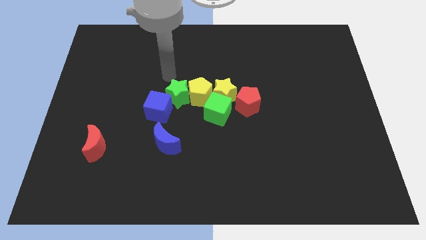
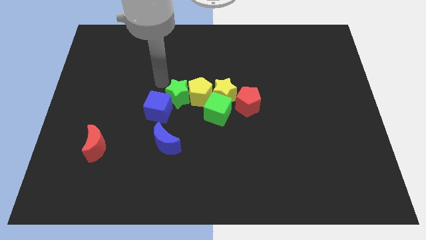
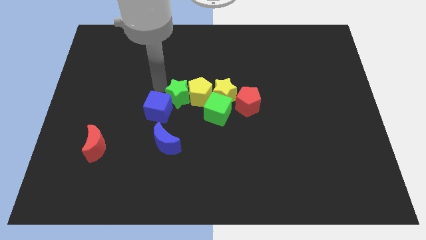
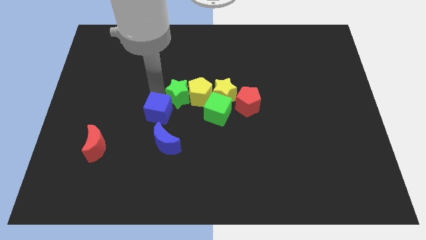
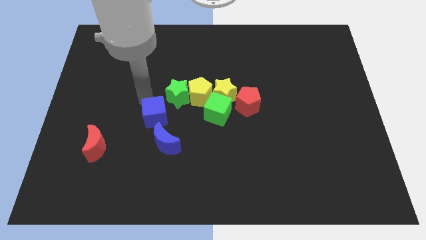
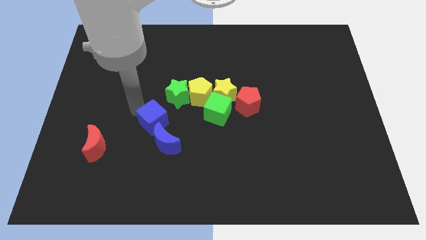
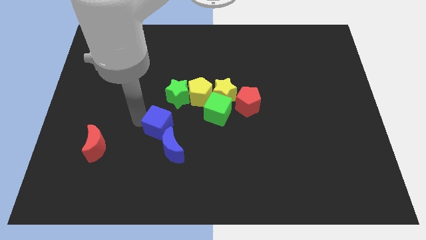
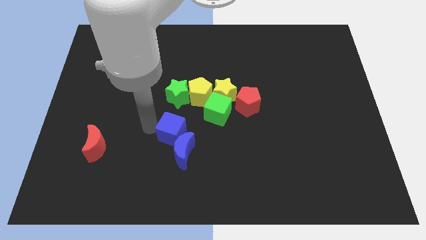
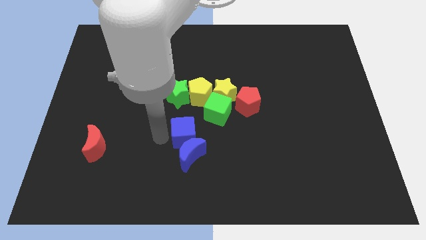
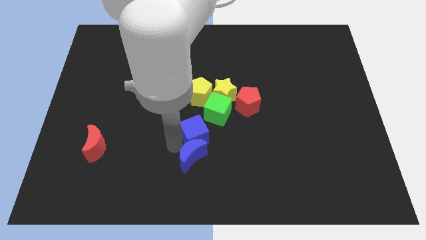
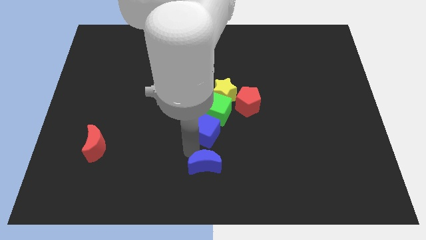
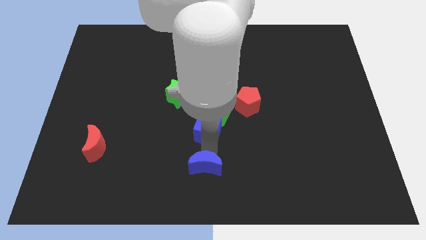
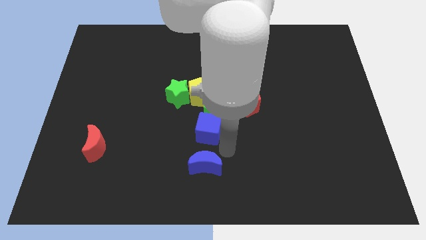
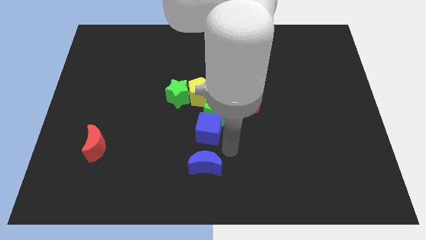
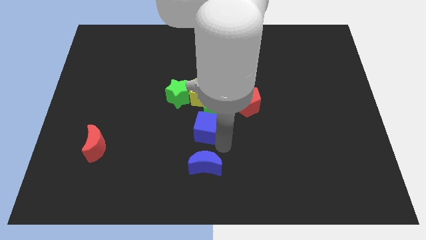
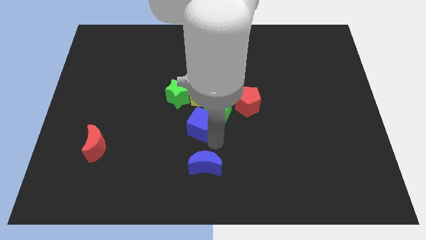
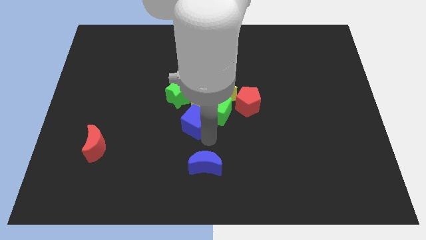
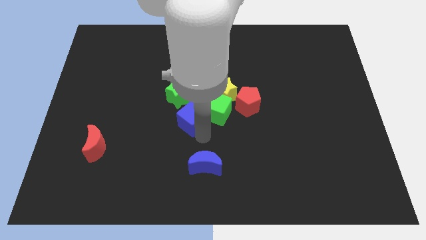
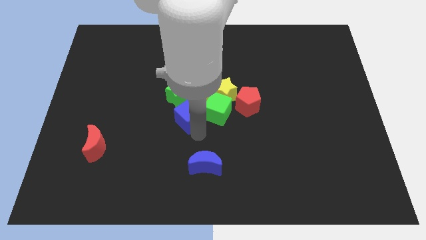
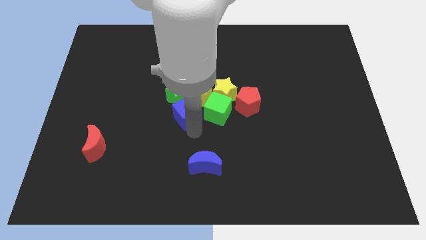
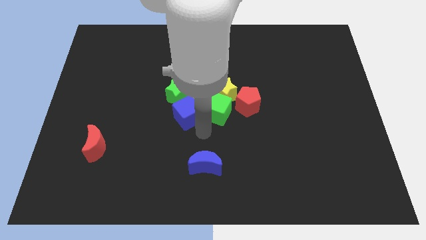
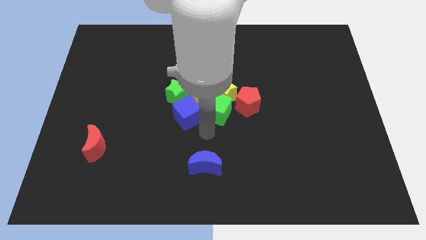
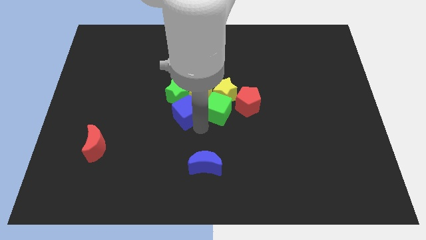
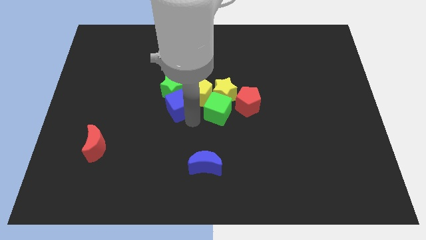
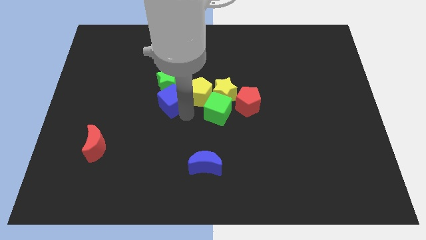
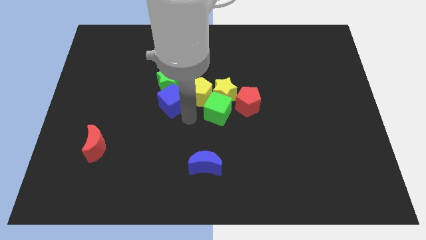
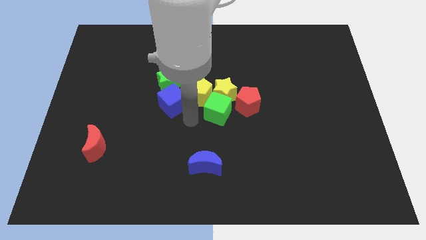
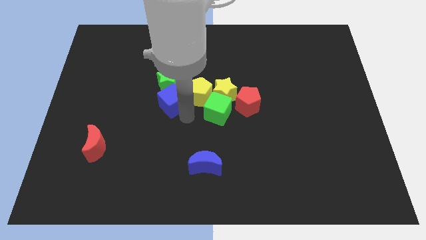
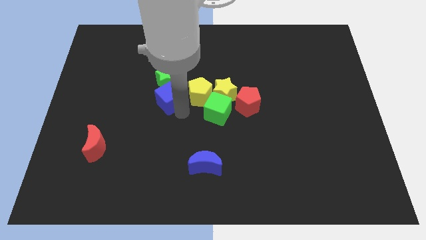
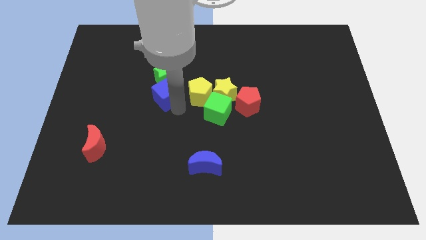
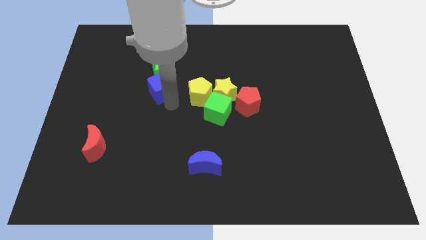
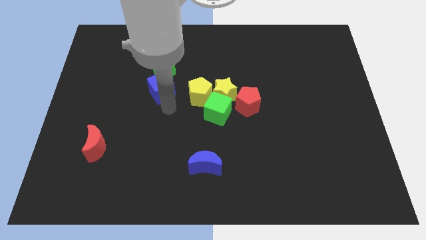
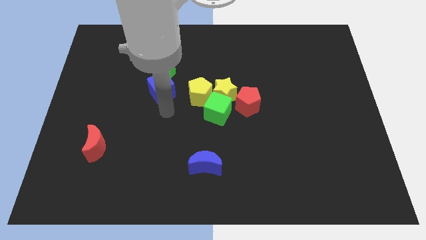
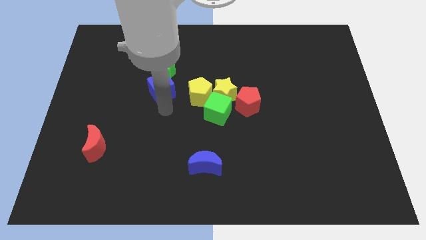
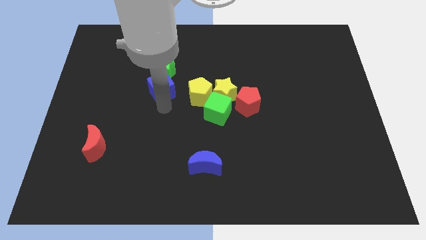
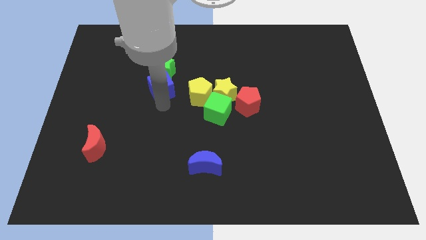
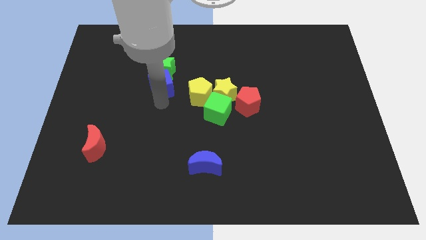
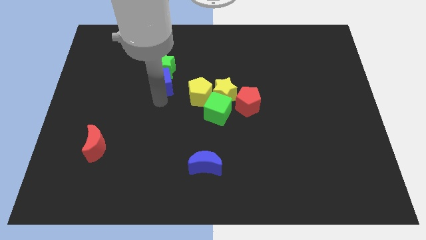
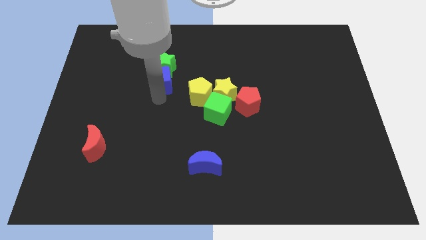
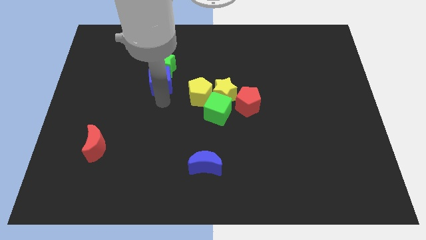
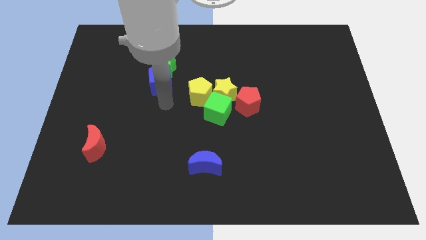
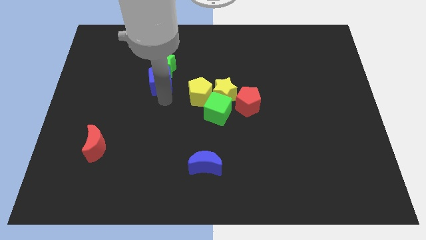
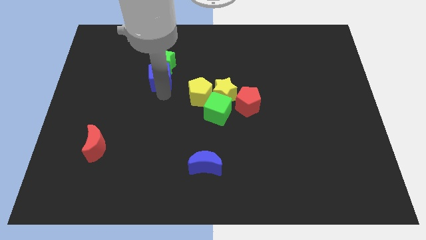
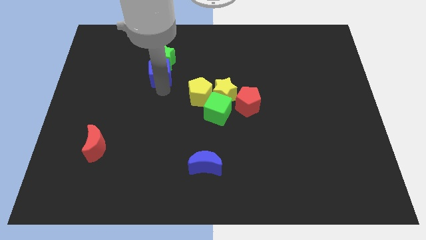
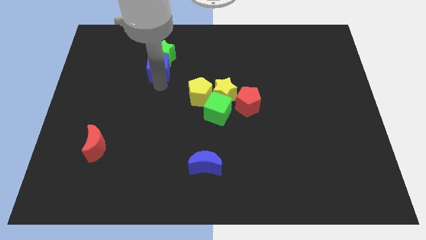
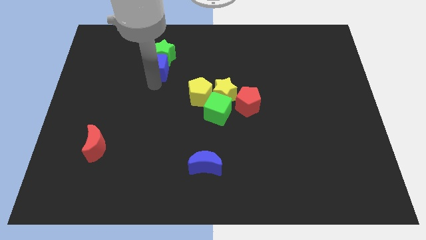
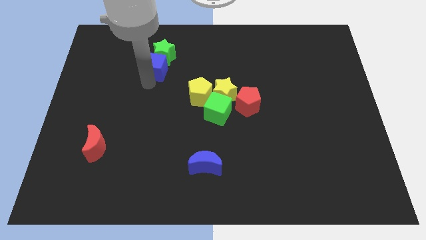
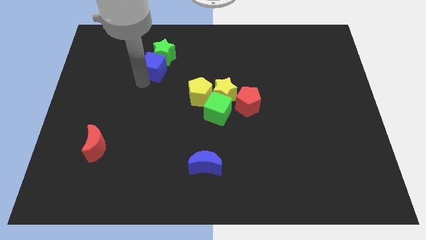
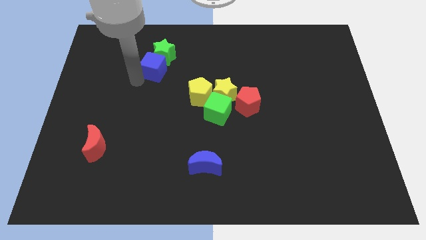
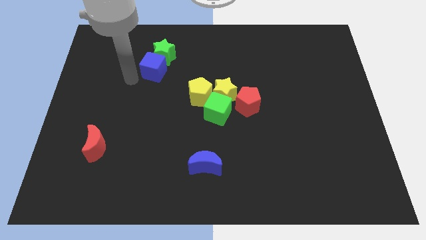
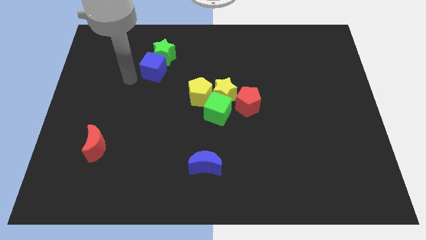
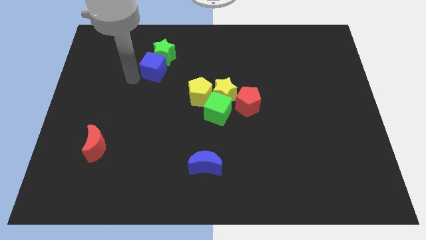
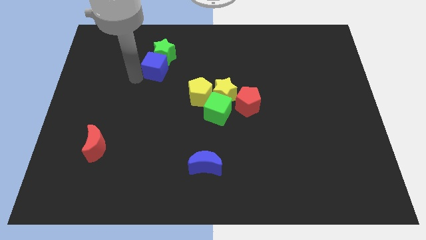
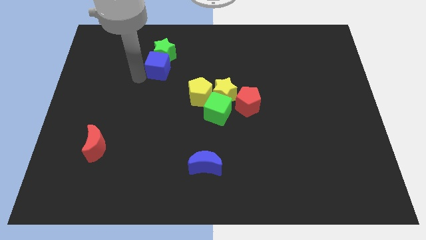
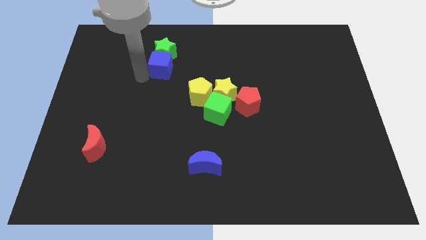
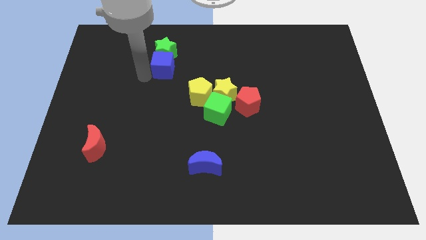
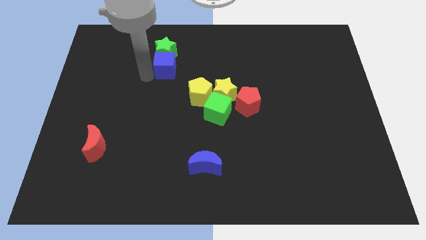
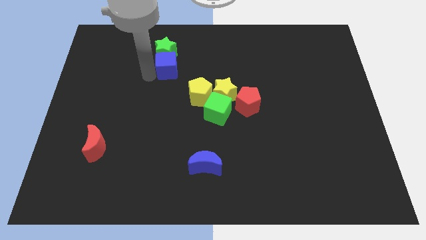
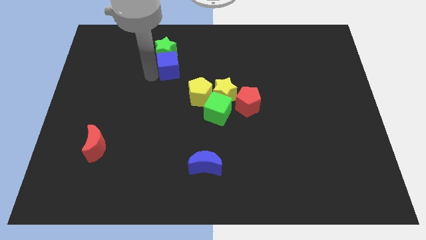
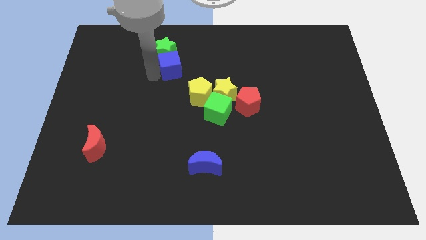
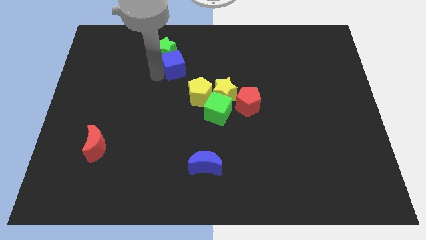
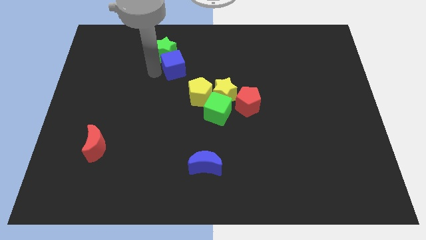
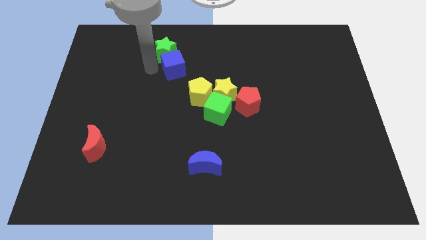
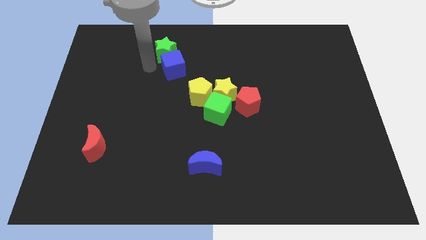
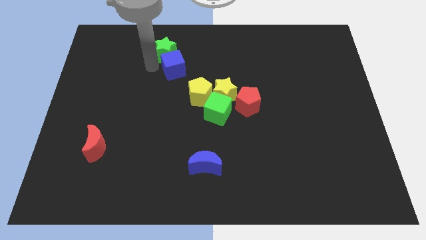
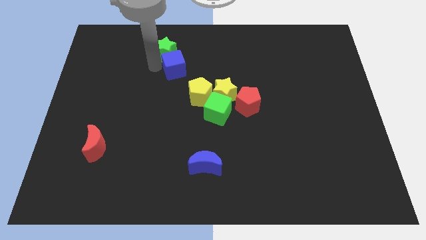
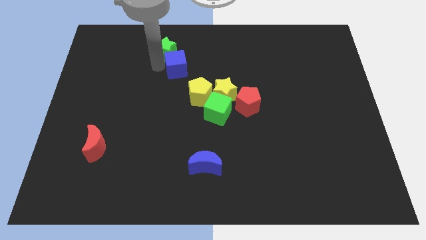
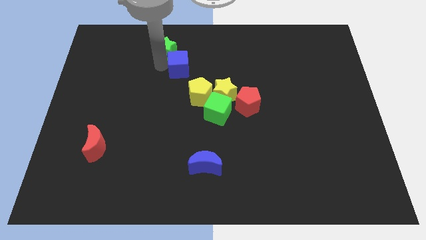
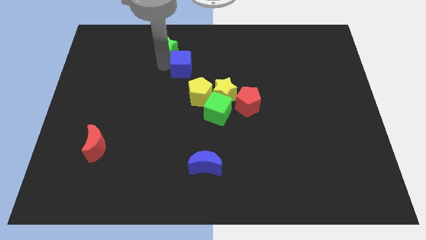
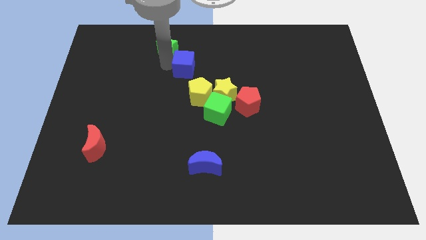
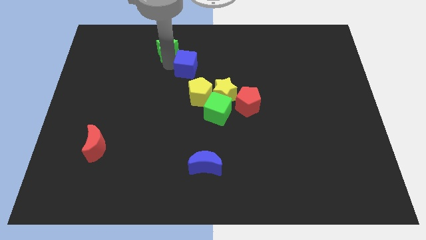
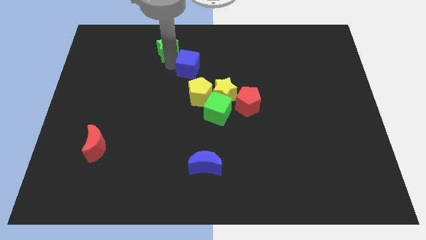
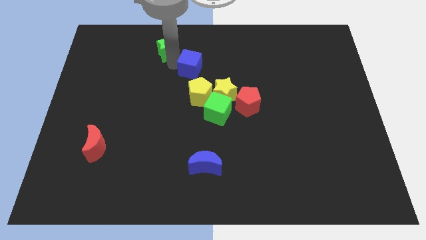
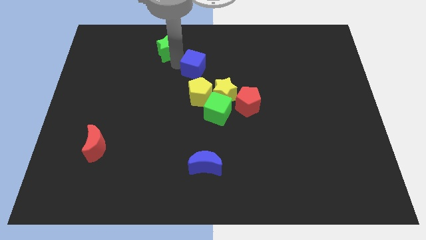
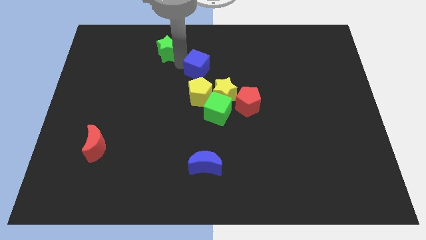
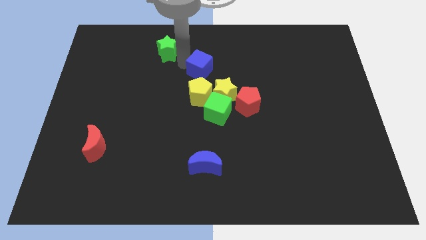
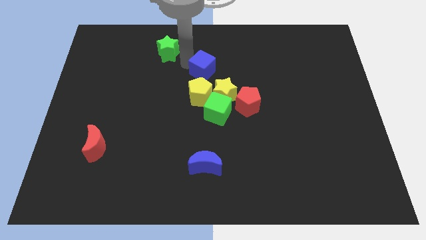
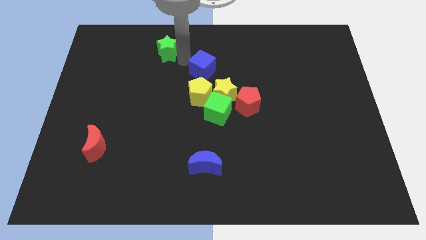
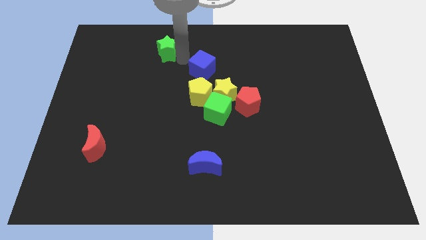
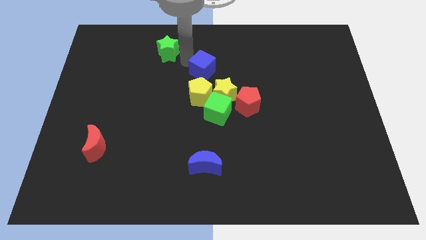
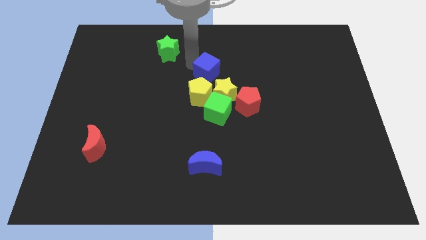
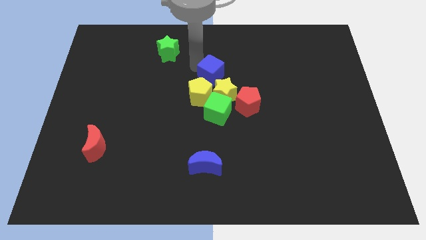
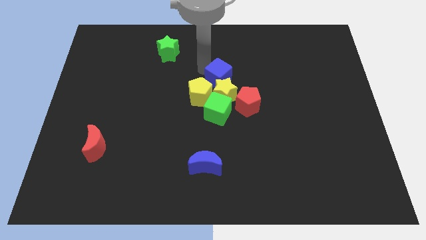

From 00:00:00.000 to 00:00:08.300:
push the blue cube close to the yellow star
